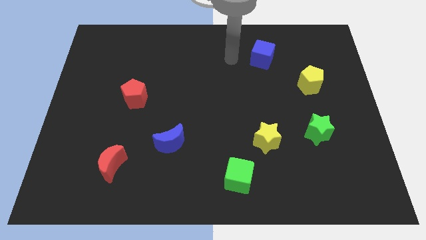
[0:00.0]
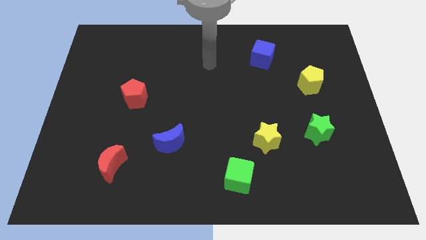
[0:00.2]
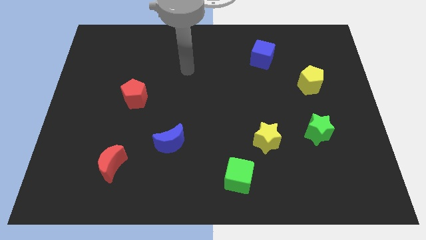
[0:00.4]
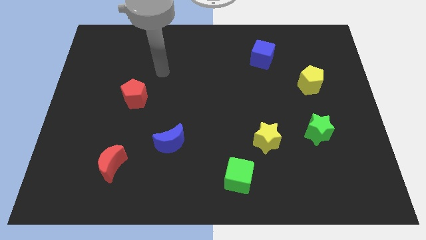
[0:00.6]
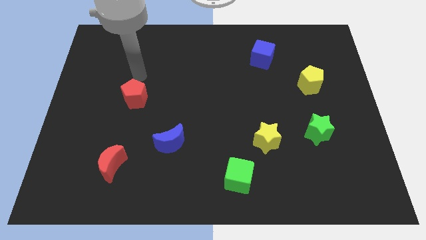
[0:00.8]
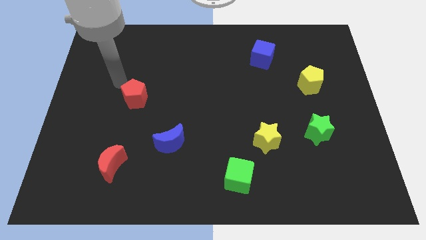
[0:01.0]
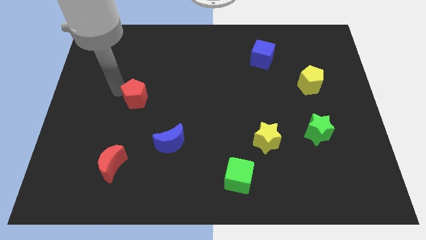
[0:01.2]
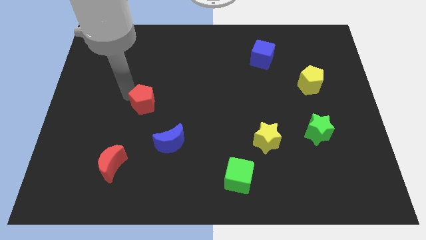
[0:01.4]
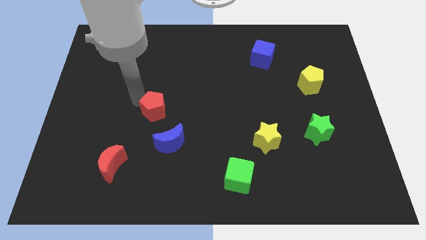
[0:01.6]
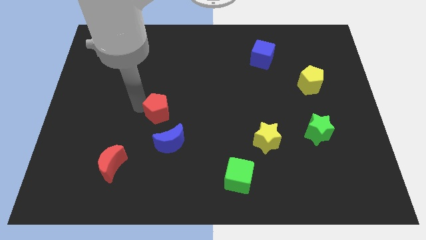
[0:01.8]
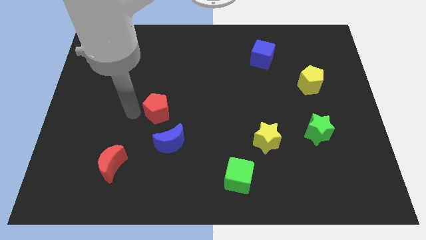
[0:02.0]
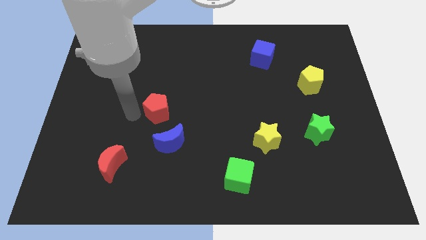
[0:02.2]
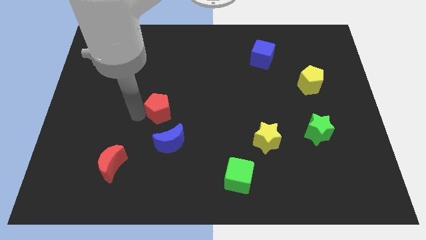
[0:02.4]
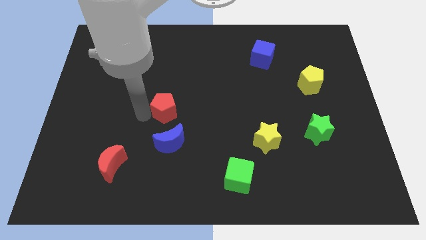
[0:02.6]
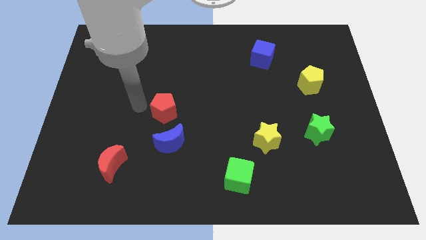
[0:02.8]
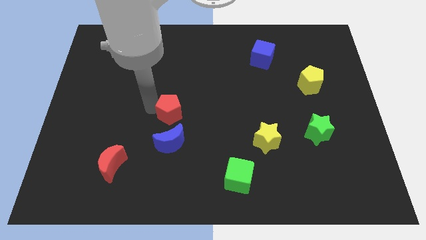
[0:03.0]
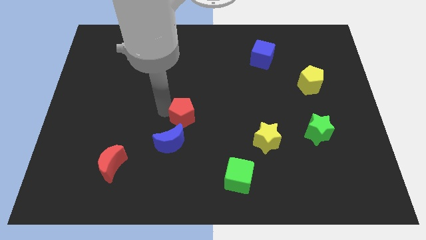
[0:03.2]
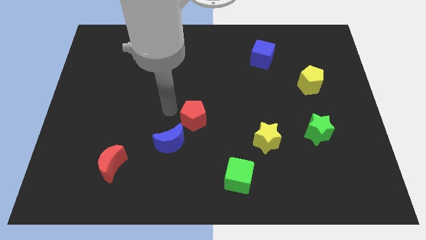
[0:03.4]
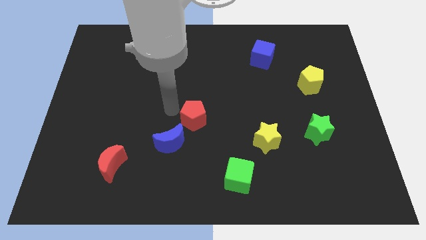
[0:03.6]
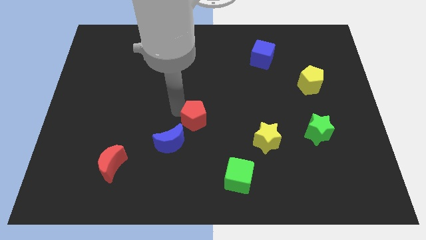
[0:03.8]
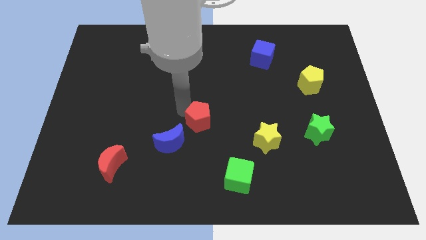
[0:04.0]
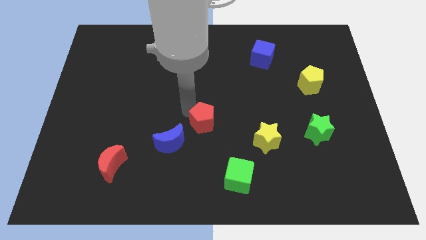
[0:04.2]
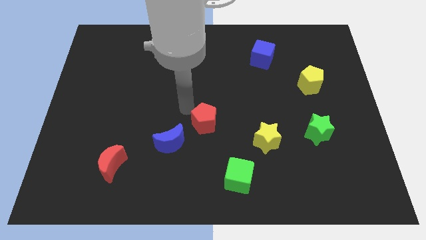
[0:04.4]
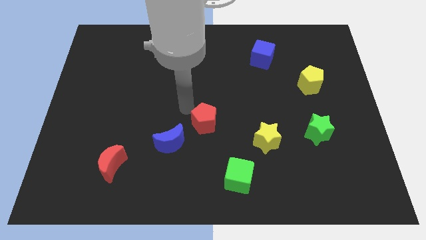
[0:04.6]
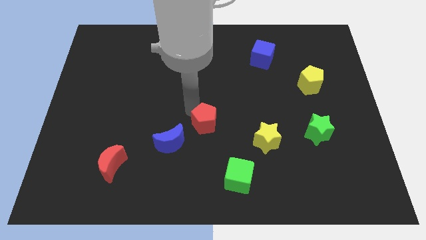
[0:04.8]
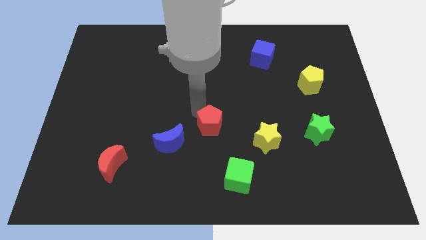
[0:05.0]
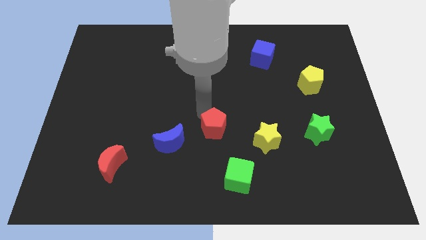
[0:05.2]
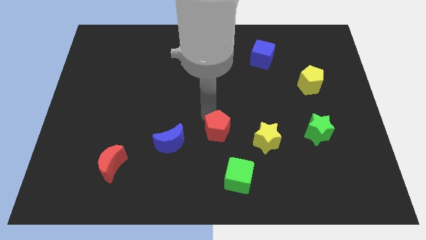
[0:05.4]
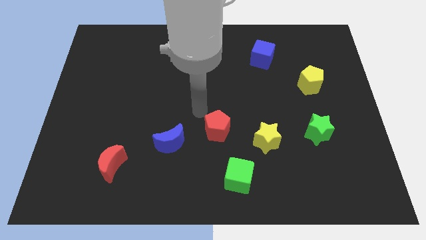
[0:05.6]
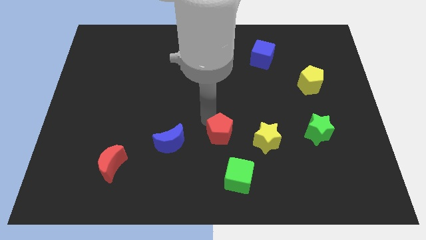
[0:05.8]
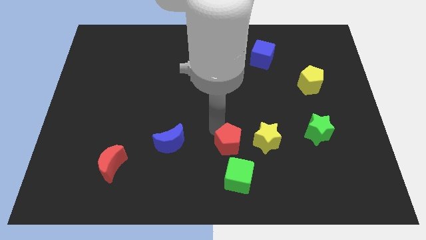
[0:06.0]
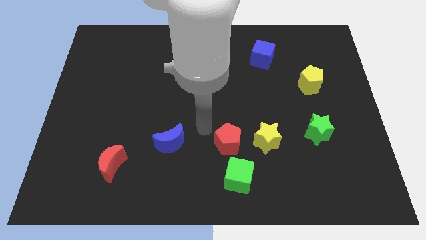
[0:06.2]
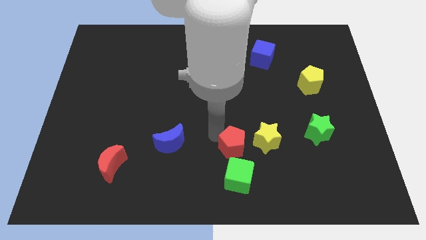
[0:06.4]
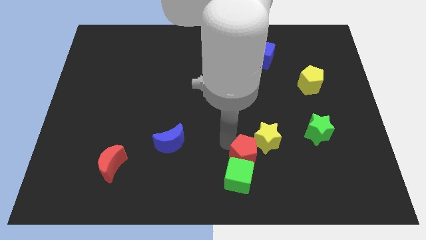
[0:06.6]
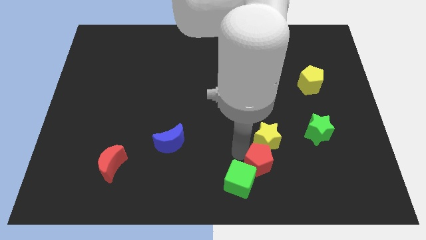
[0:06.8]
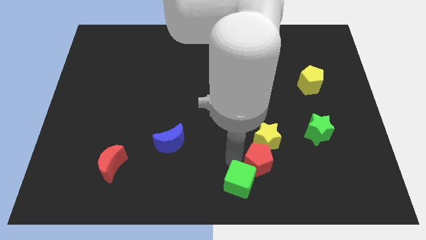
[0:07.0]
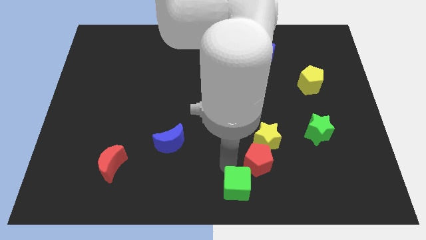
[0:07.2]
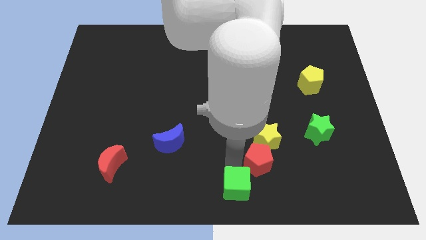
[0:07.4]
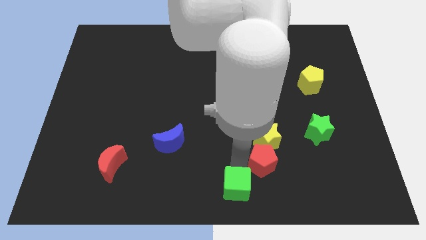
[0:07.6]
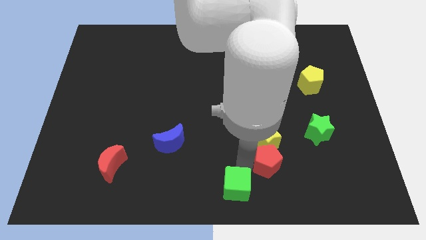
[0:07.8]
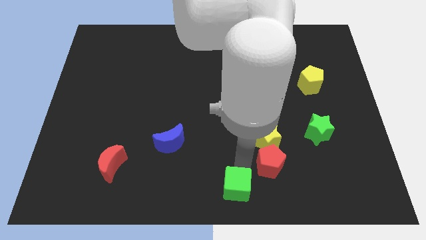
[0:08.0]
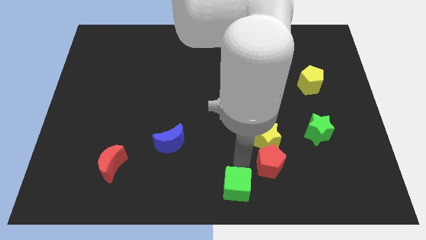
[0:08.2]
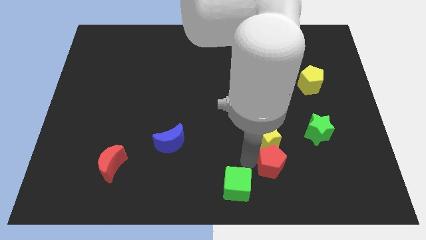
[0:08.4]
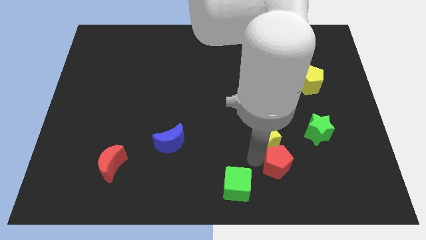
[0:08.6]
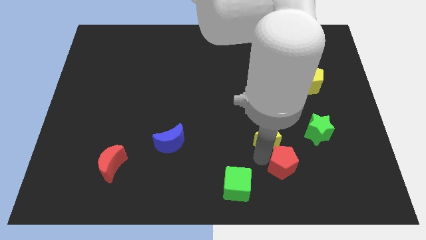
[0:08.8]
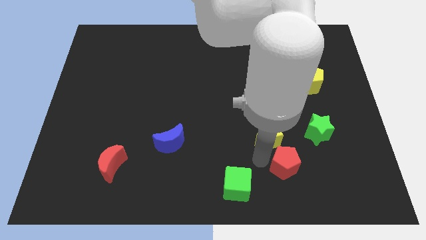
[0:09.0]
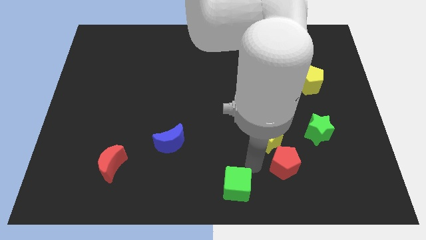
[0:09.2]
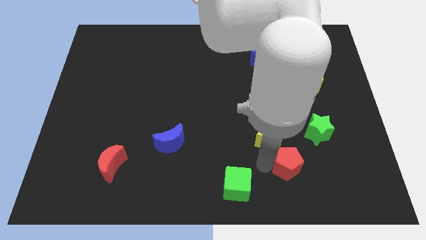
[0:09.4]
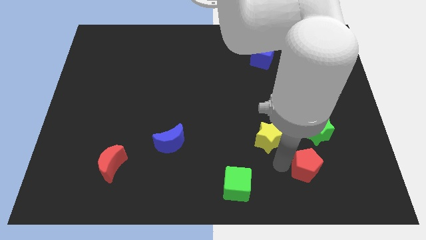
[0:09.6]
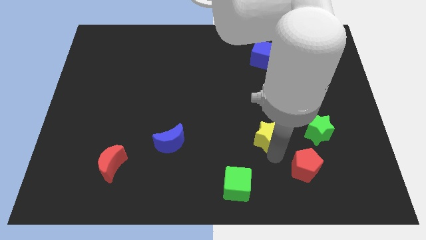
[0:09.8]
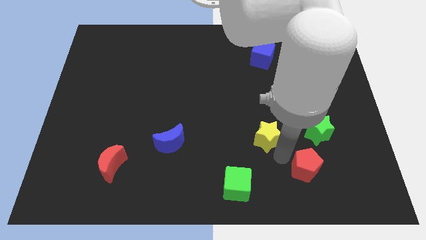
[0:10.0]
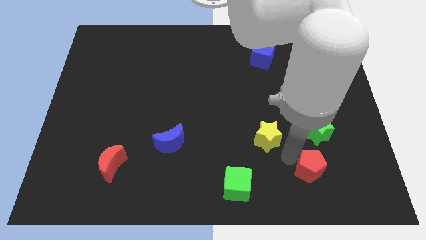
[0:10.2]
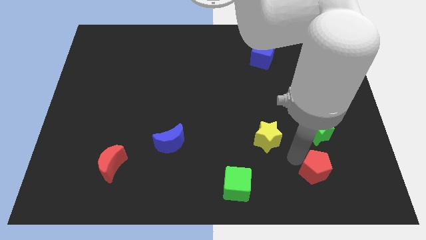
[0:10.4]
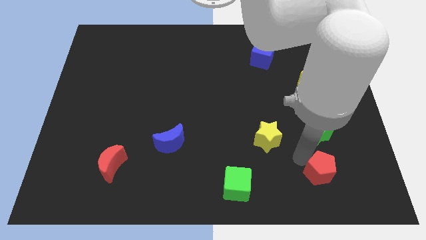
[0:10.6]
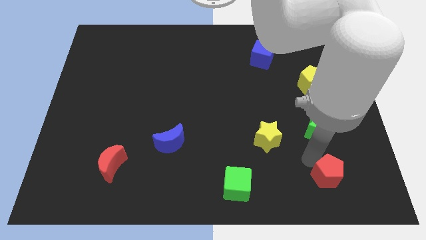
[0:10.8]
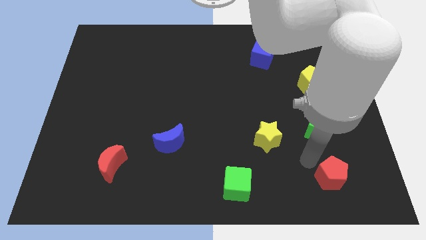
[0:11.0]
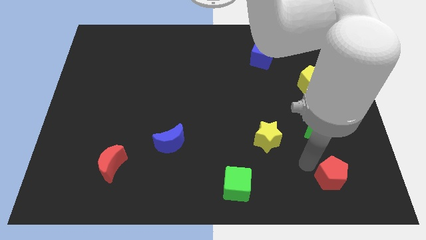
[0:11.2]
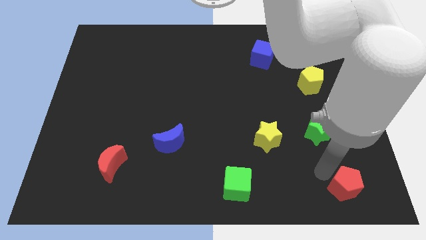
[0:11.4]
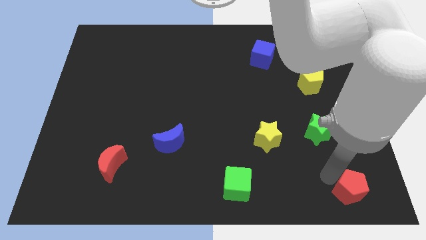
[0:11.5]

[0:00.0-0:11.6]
push the red pentagon to the lower right corner

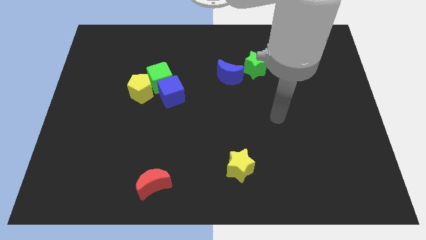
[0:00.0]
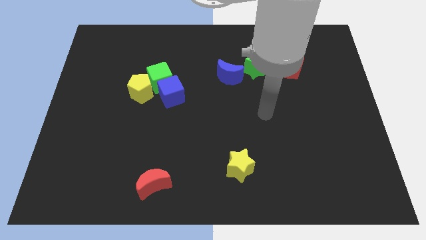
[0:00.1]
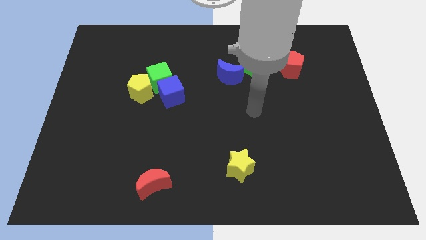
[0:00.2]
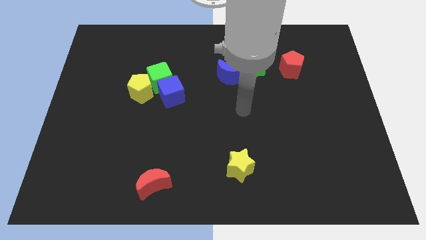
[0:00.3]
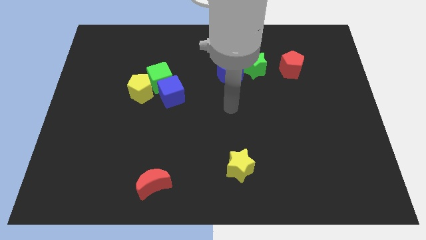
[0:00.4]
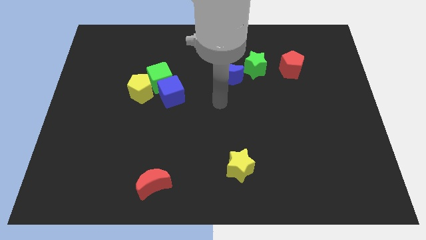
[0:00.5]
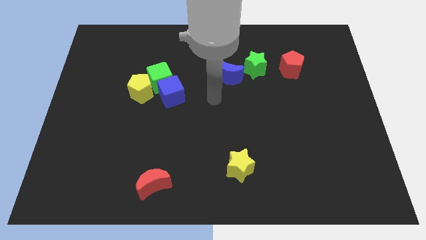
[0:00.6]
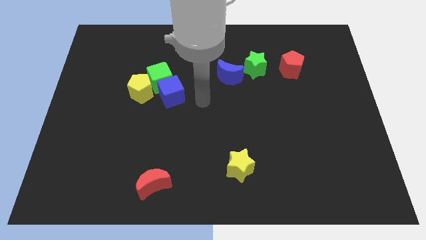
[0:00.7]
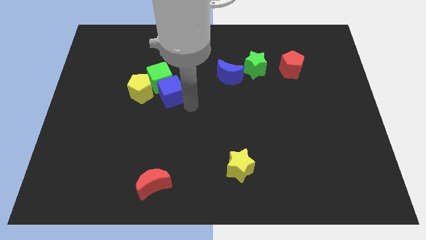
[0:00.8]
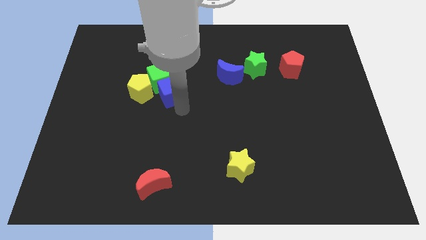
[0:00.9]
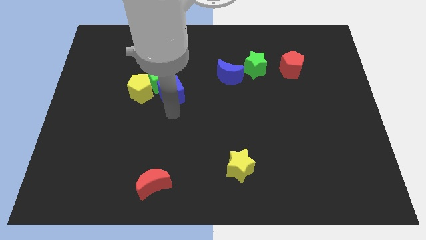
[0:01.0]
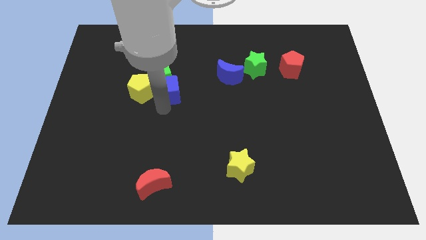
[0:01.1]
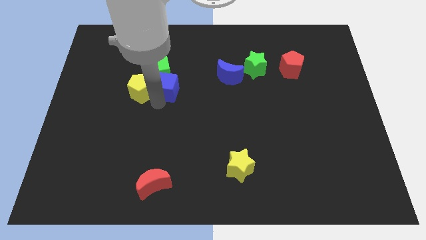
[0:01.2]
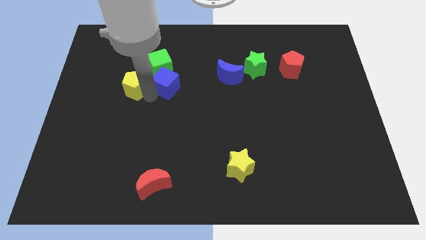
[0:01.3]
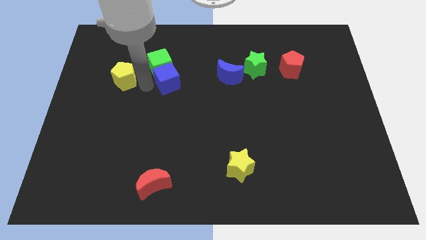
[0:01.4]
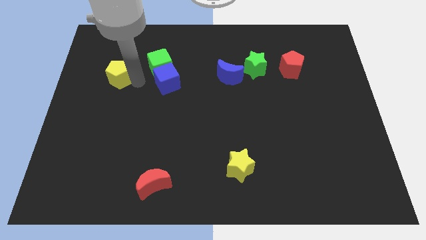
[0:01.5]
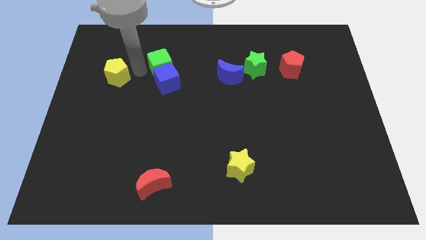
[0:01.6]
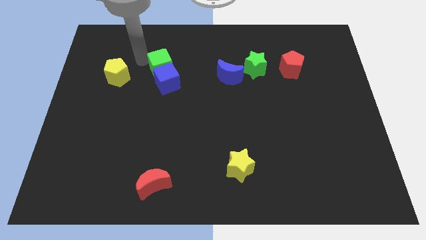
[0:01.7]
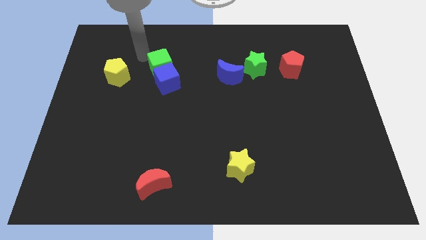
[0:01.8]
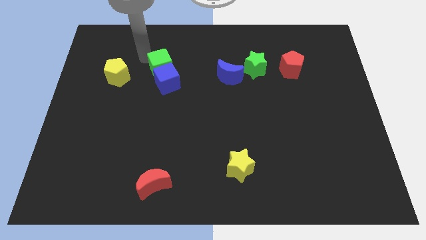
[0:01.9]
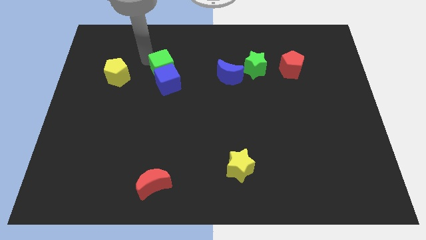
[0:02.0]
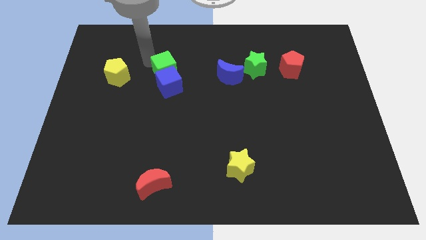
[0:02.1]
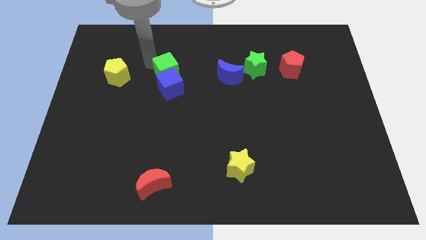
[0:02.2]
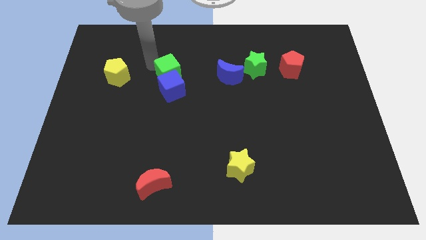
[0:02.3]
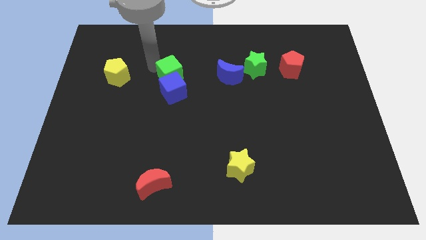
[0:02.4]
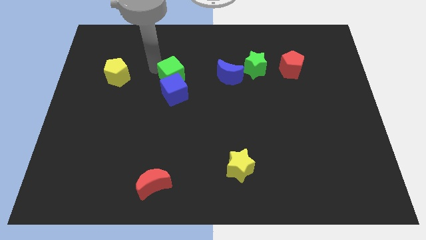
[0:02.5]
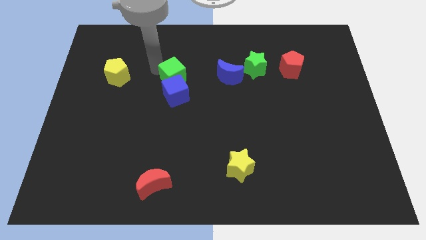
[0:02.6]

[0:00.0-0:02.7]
push the green cube to the middle of the board
